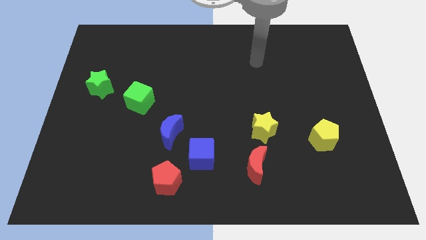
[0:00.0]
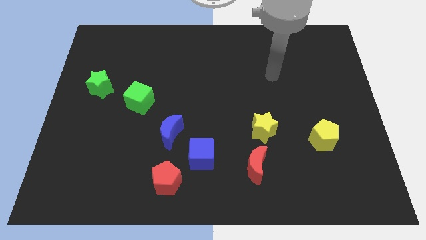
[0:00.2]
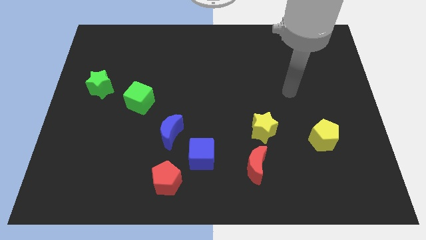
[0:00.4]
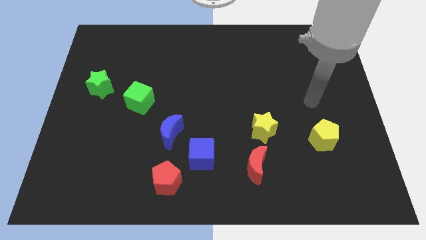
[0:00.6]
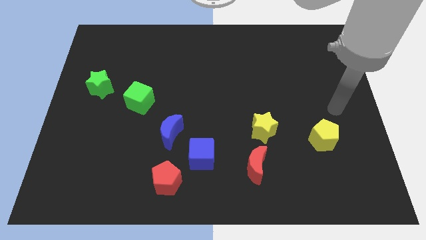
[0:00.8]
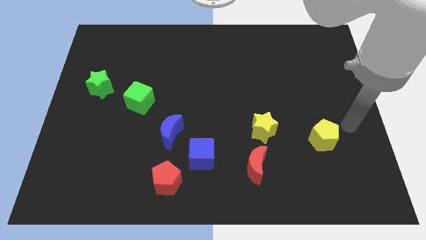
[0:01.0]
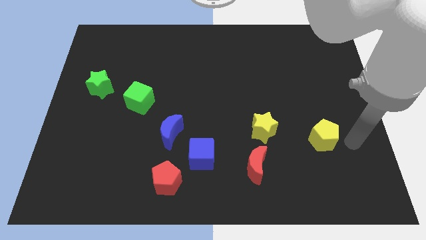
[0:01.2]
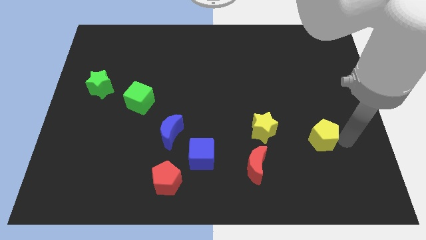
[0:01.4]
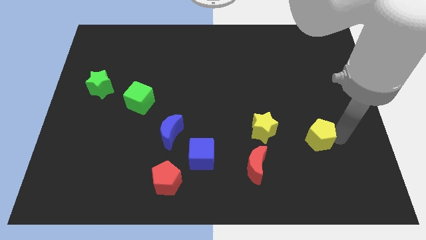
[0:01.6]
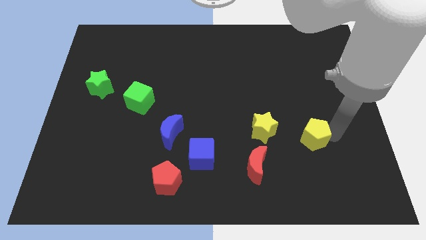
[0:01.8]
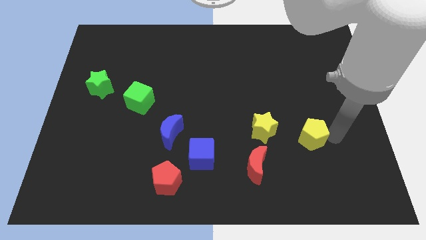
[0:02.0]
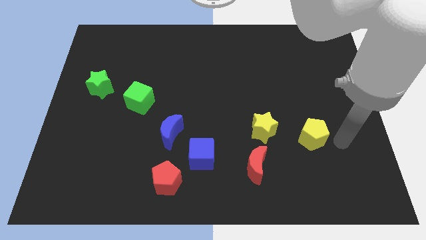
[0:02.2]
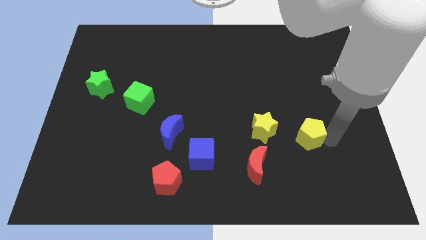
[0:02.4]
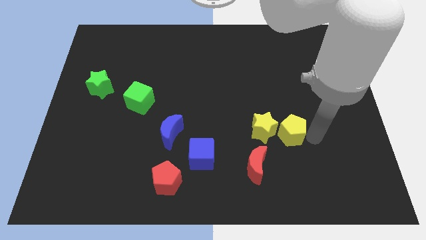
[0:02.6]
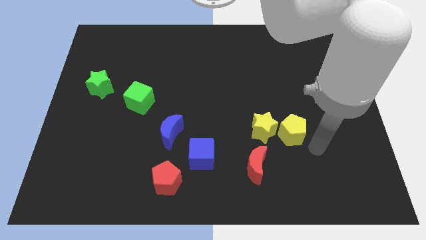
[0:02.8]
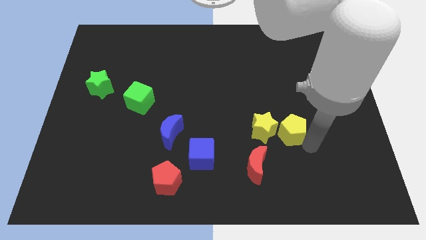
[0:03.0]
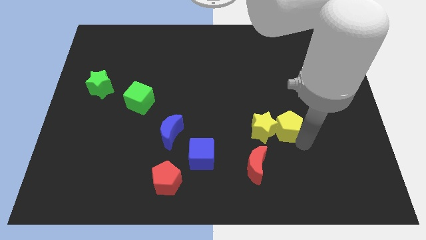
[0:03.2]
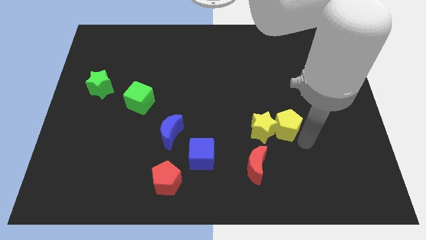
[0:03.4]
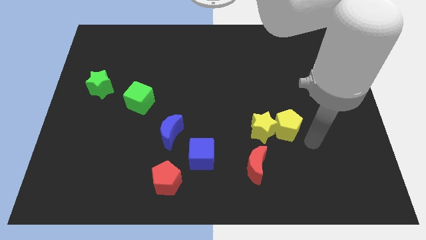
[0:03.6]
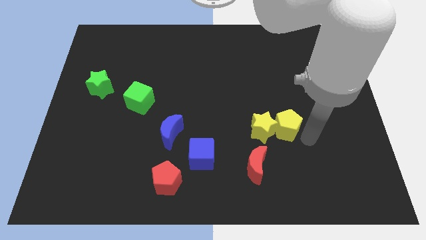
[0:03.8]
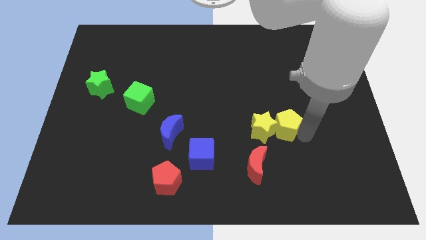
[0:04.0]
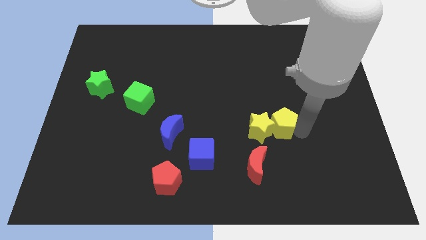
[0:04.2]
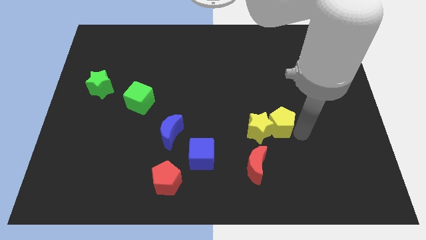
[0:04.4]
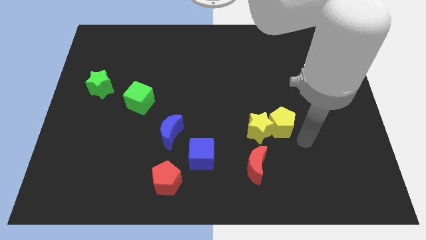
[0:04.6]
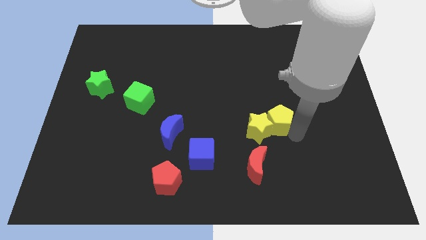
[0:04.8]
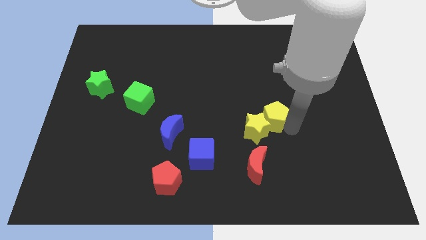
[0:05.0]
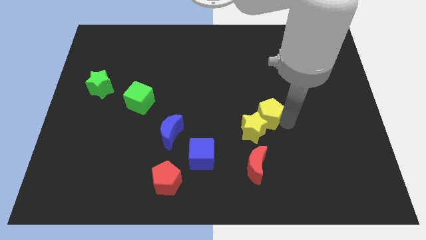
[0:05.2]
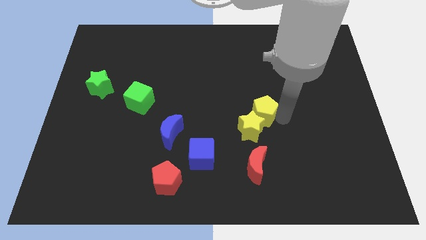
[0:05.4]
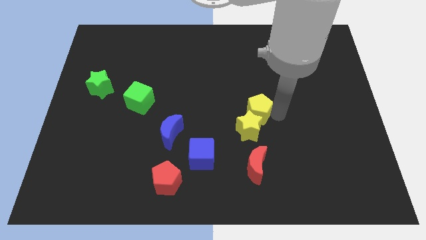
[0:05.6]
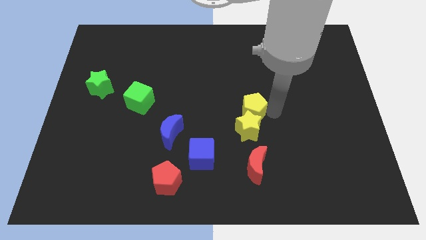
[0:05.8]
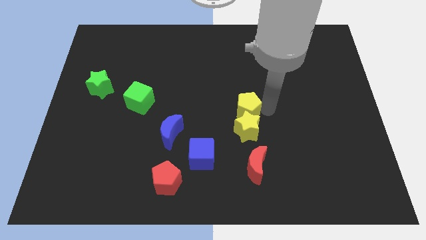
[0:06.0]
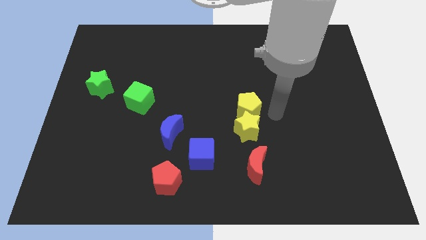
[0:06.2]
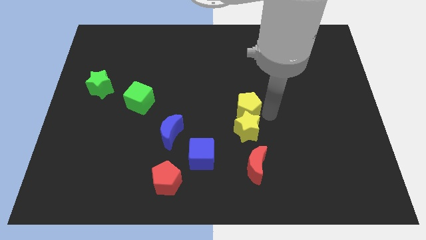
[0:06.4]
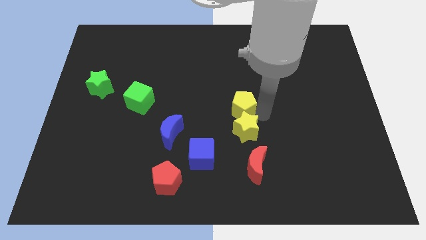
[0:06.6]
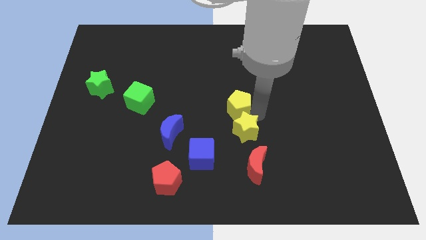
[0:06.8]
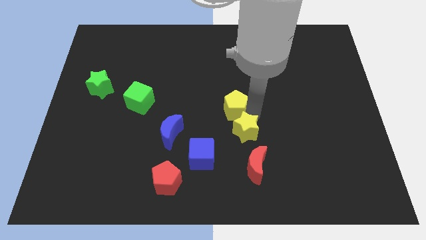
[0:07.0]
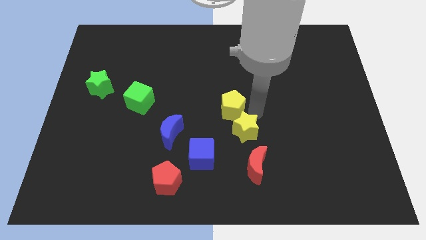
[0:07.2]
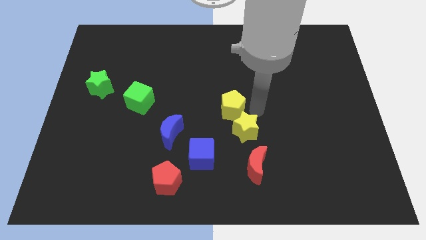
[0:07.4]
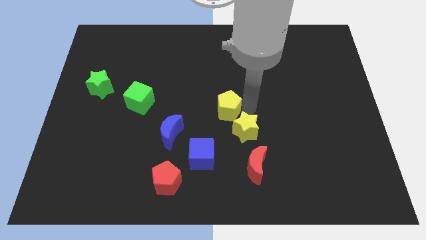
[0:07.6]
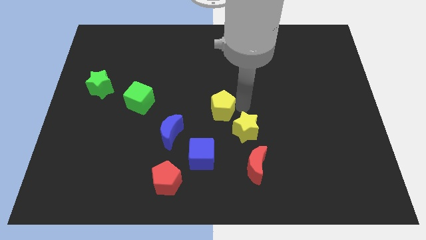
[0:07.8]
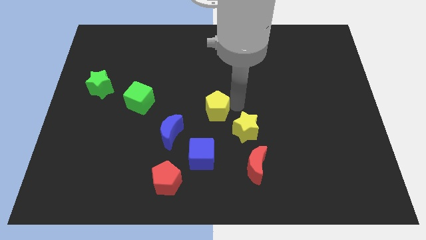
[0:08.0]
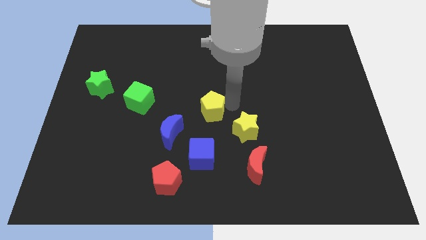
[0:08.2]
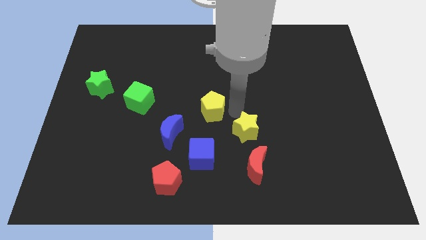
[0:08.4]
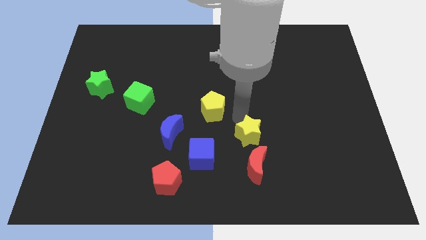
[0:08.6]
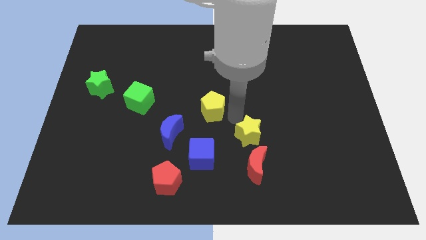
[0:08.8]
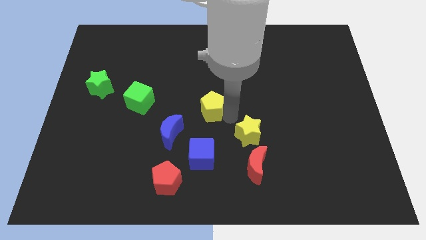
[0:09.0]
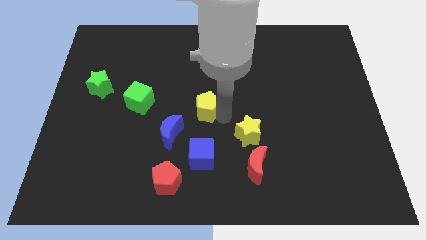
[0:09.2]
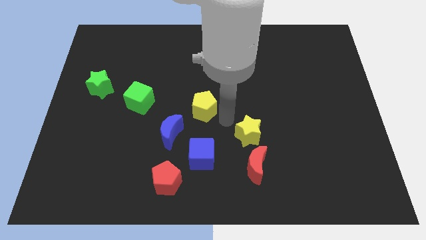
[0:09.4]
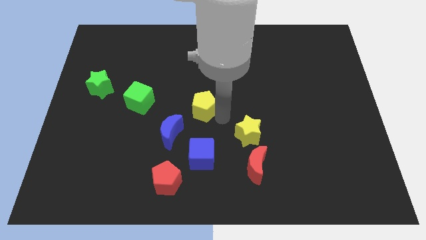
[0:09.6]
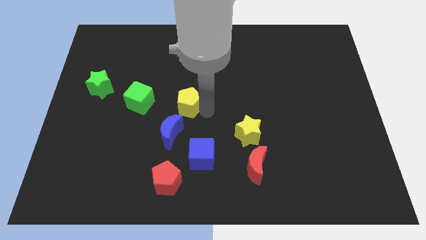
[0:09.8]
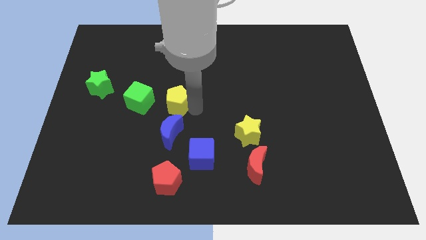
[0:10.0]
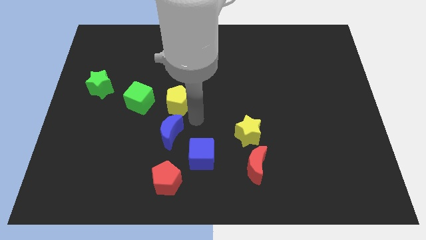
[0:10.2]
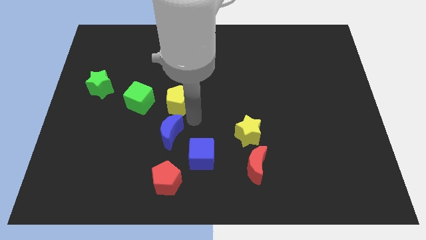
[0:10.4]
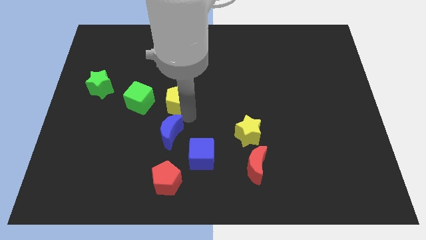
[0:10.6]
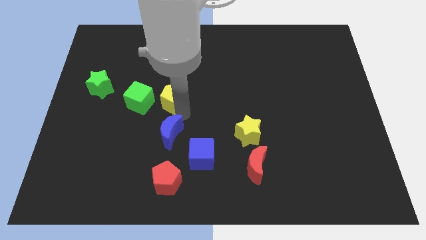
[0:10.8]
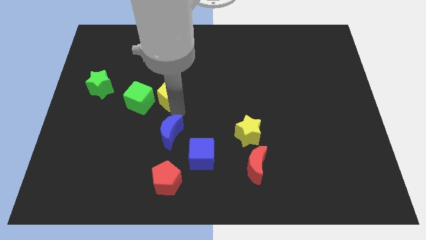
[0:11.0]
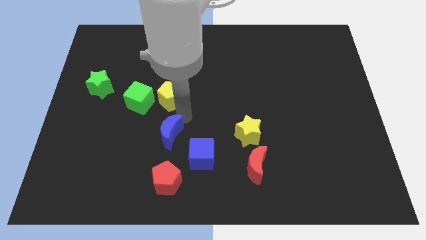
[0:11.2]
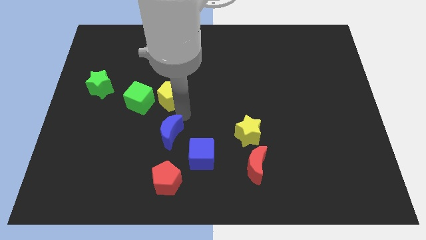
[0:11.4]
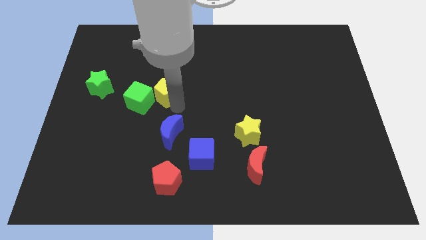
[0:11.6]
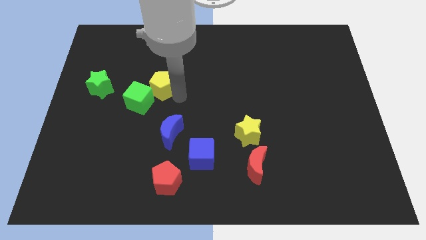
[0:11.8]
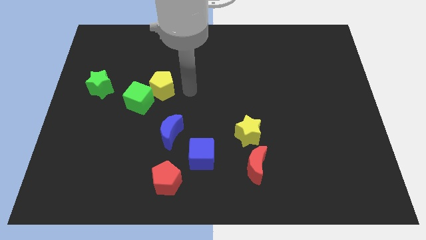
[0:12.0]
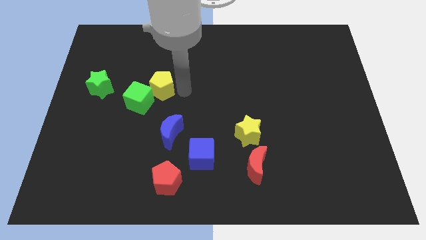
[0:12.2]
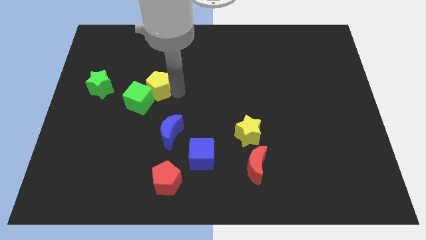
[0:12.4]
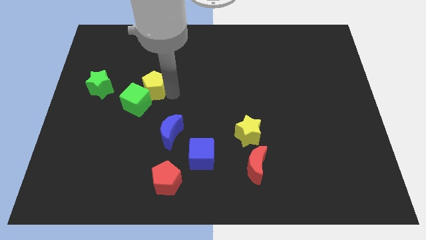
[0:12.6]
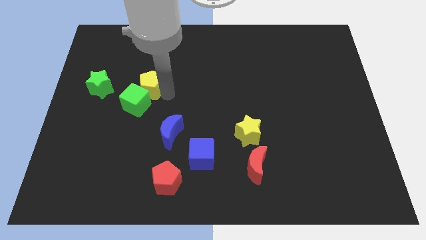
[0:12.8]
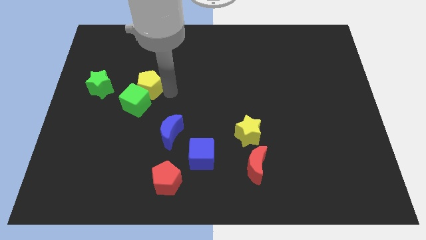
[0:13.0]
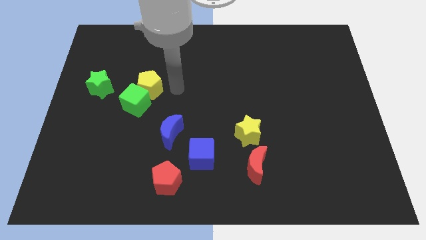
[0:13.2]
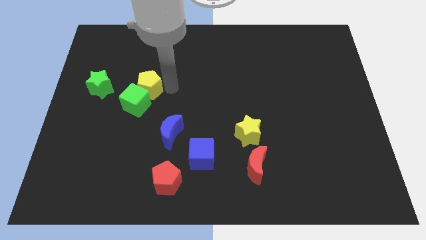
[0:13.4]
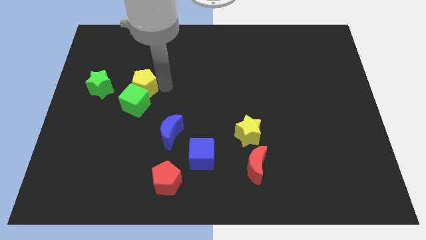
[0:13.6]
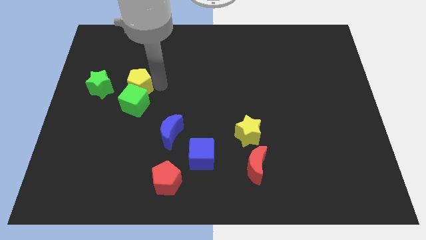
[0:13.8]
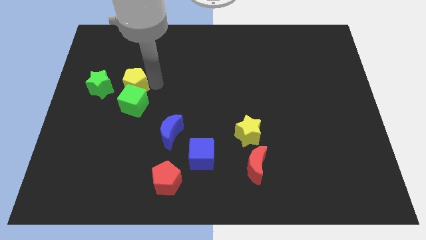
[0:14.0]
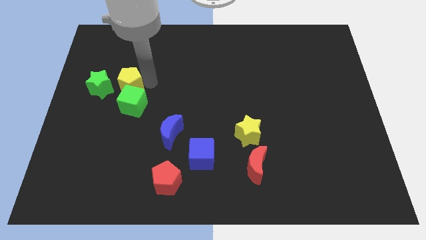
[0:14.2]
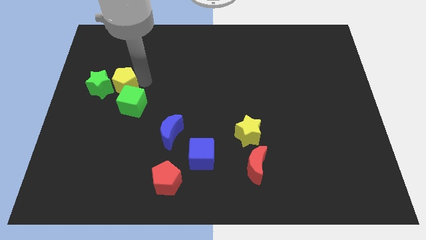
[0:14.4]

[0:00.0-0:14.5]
push the yellow pentagon towards the green star
